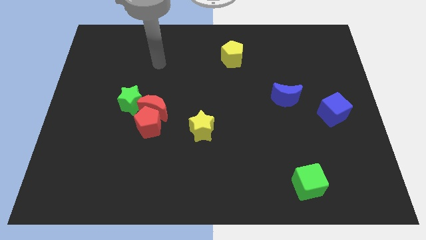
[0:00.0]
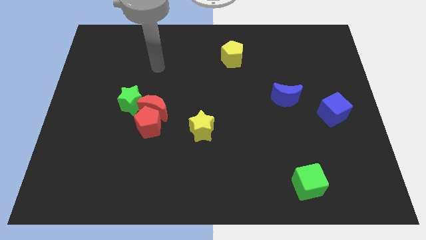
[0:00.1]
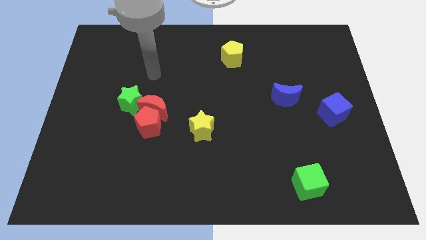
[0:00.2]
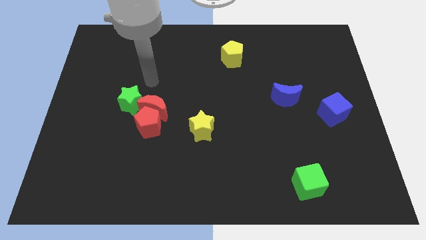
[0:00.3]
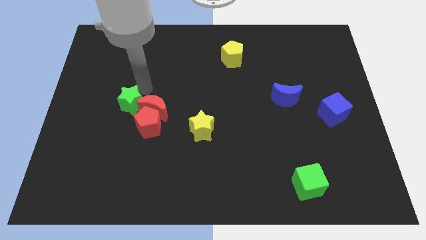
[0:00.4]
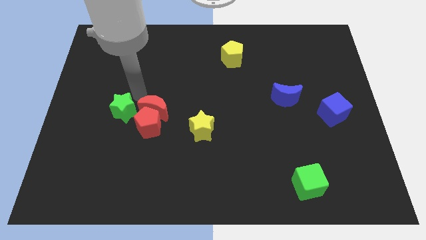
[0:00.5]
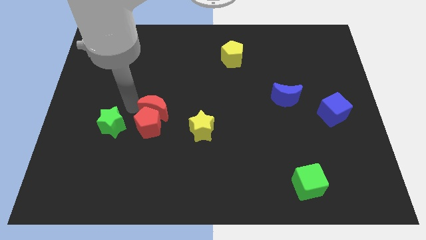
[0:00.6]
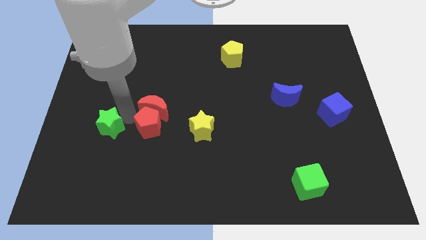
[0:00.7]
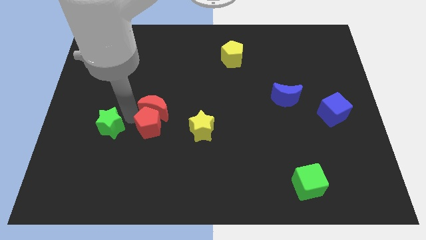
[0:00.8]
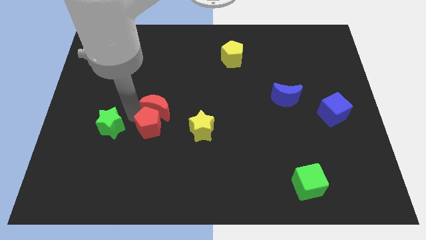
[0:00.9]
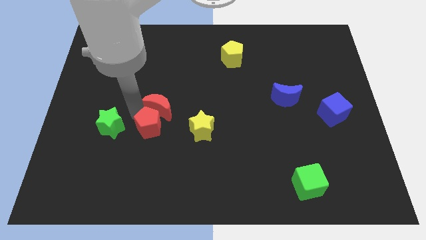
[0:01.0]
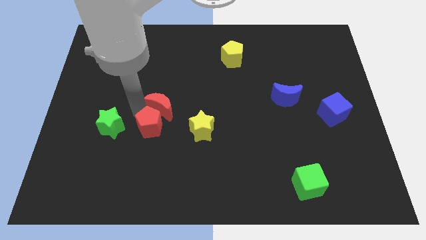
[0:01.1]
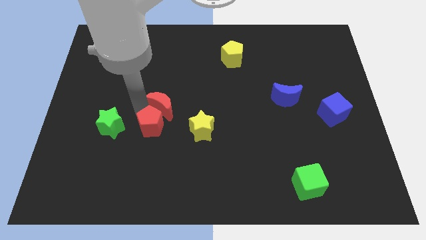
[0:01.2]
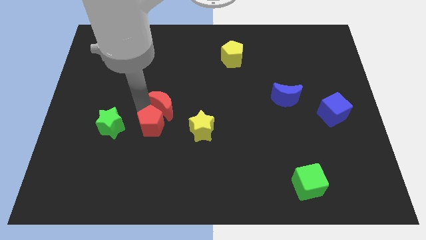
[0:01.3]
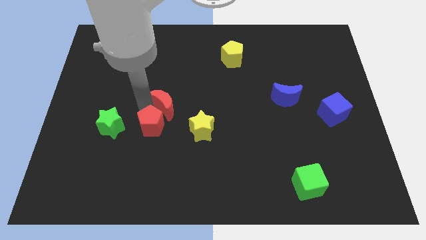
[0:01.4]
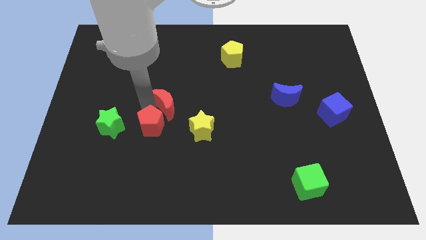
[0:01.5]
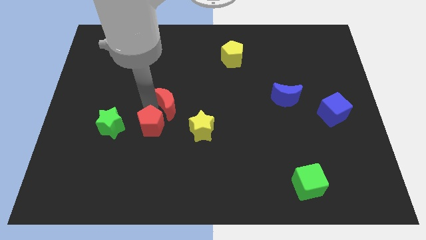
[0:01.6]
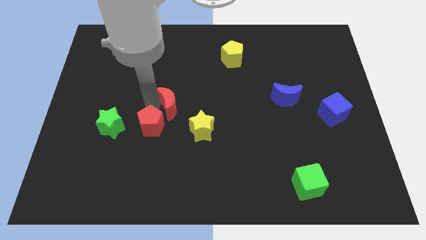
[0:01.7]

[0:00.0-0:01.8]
move the red moon away from the red pentagon and green star

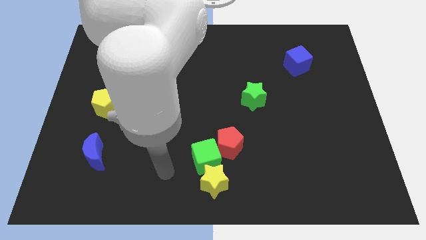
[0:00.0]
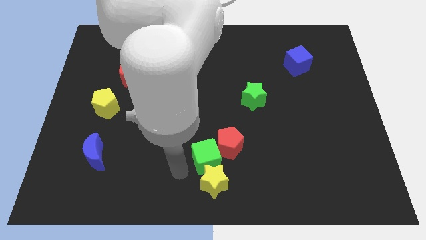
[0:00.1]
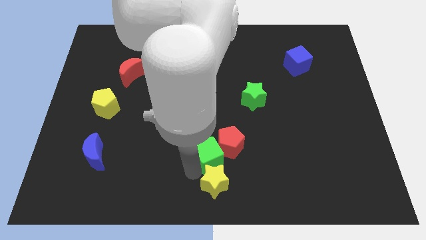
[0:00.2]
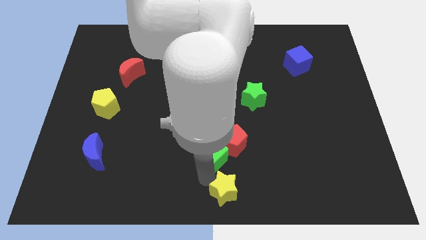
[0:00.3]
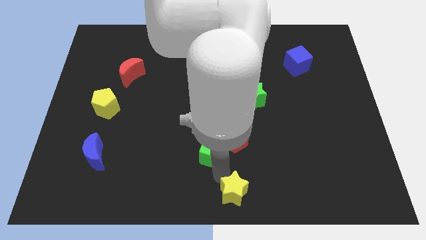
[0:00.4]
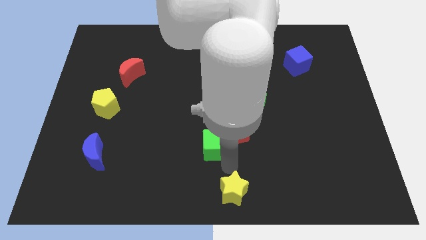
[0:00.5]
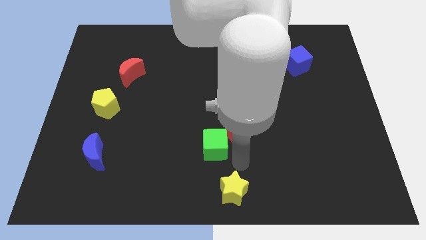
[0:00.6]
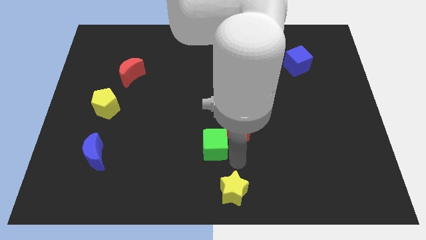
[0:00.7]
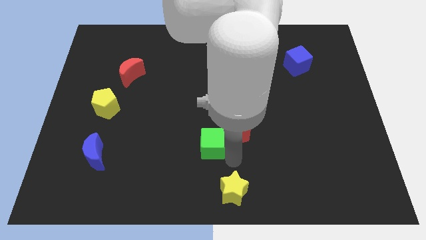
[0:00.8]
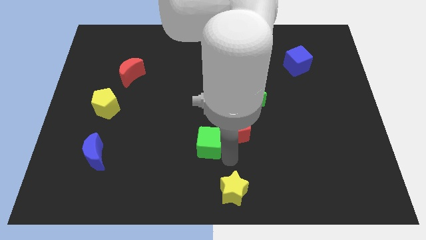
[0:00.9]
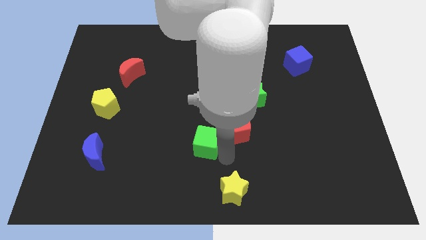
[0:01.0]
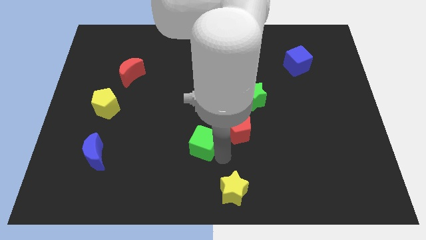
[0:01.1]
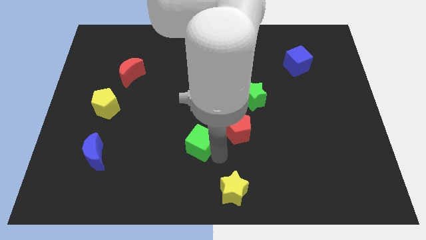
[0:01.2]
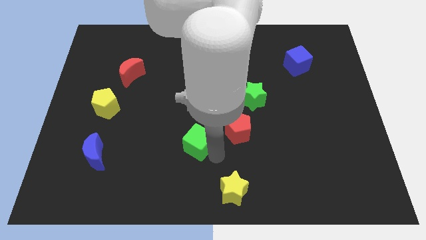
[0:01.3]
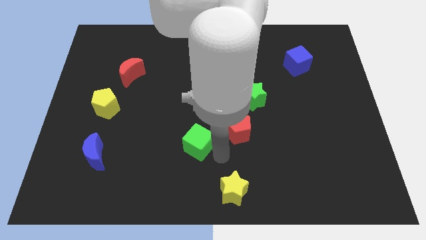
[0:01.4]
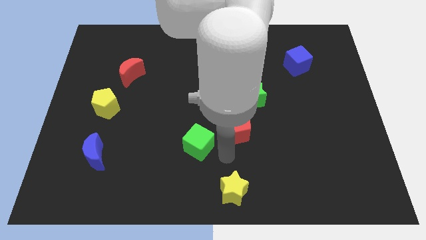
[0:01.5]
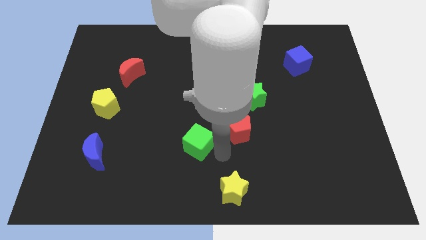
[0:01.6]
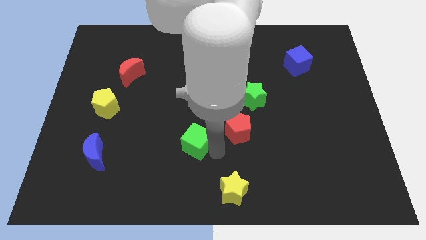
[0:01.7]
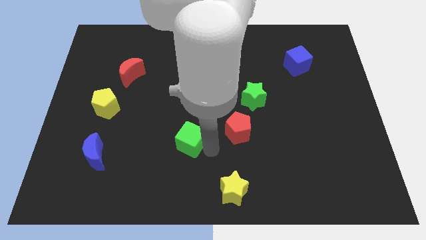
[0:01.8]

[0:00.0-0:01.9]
move the green cube away from the yellow star and red pentagon

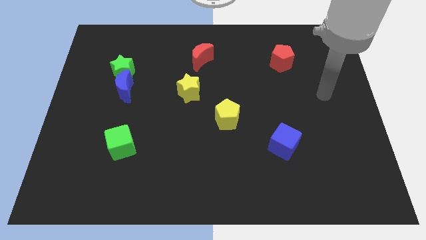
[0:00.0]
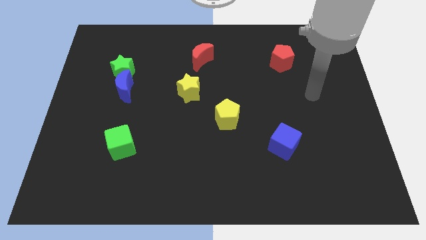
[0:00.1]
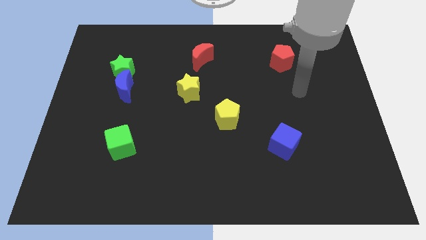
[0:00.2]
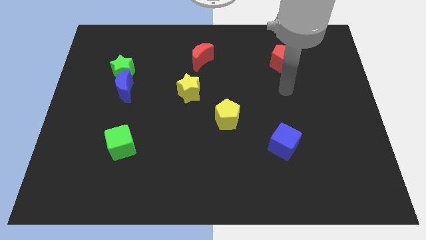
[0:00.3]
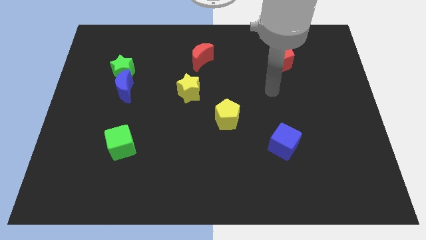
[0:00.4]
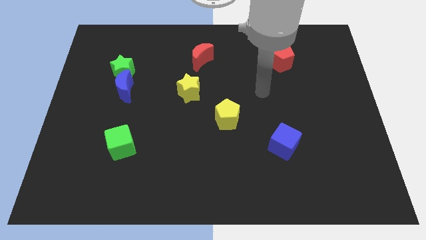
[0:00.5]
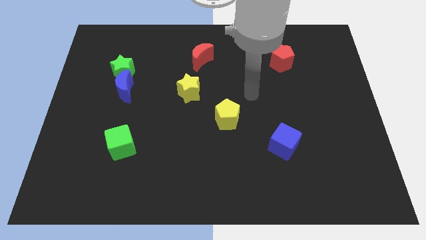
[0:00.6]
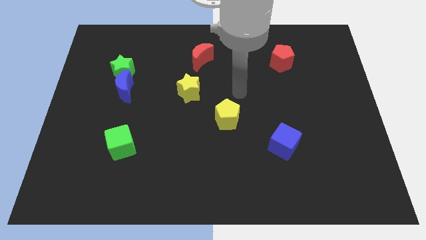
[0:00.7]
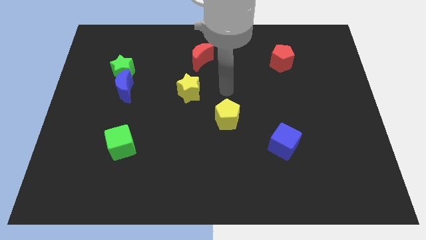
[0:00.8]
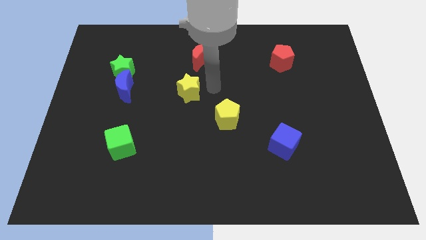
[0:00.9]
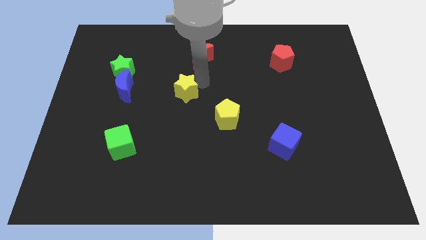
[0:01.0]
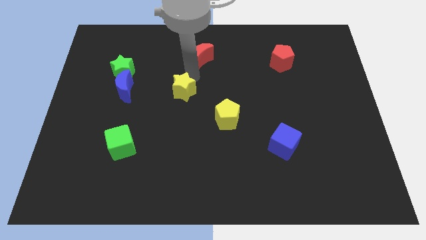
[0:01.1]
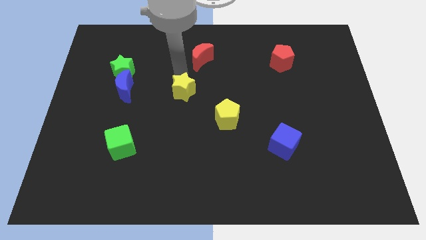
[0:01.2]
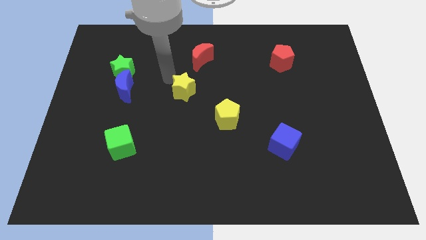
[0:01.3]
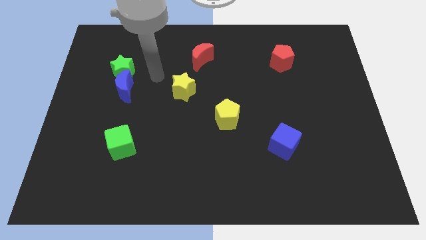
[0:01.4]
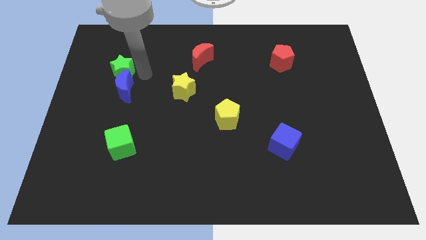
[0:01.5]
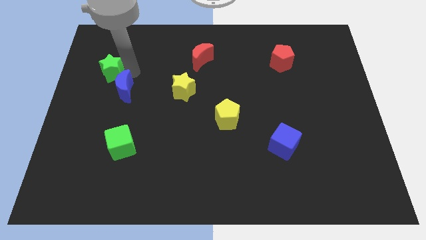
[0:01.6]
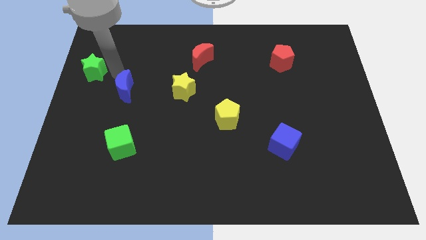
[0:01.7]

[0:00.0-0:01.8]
move the blue moon away from the green star

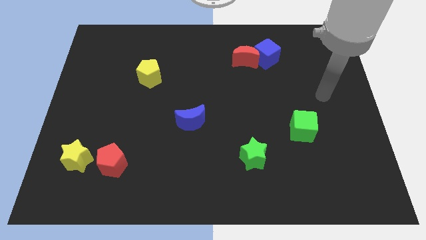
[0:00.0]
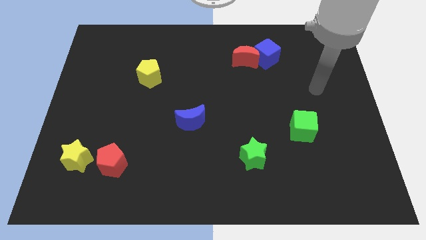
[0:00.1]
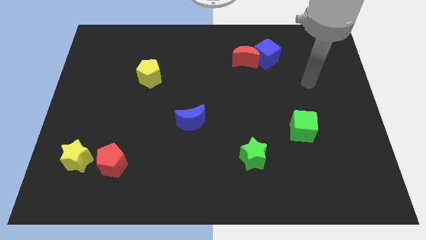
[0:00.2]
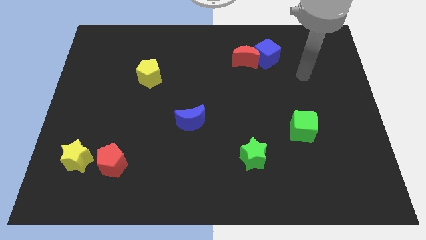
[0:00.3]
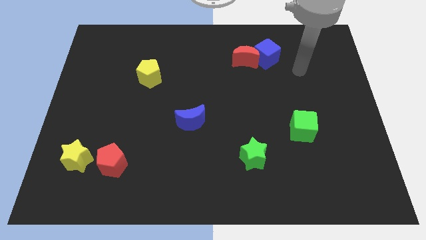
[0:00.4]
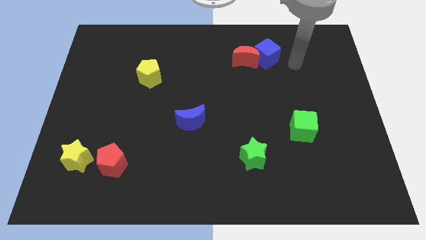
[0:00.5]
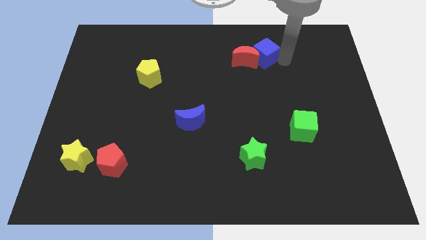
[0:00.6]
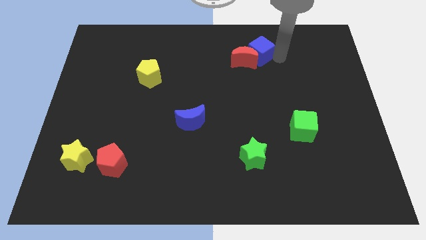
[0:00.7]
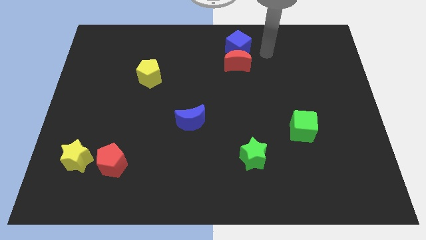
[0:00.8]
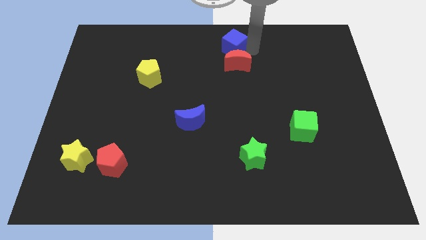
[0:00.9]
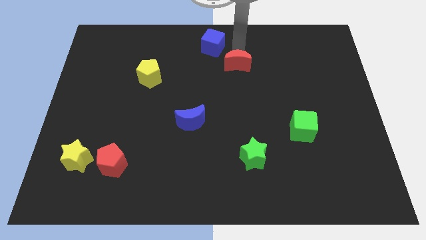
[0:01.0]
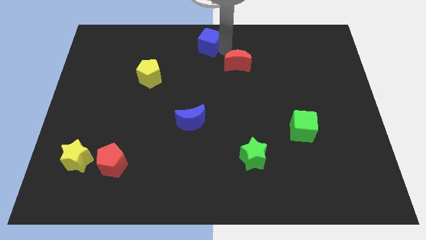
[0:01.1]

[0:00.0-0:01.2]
separate the red moon from the blue cube

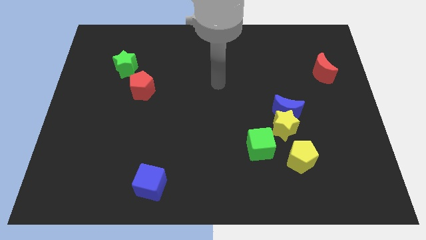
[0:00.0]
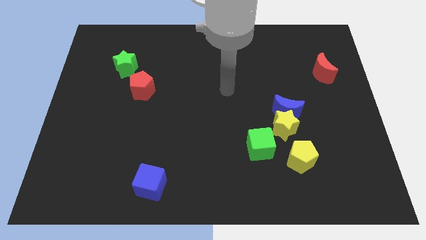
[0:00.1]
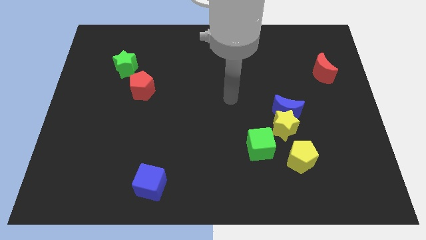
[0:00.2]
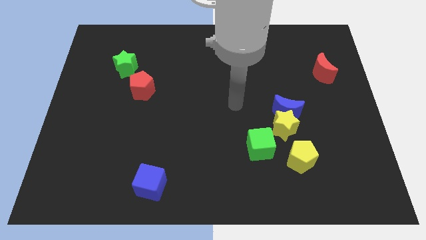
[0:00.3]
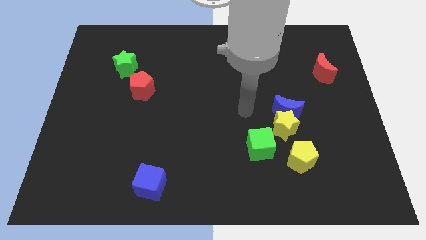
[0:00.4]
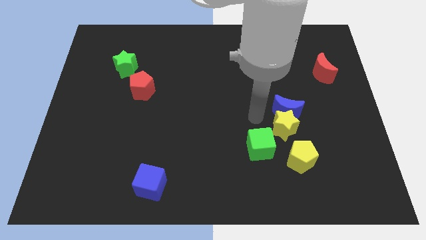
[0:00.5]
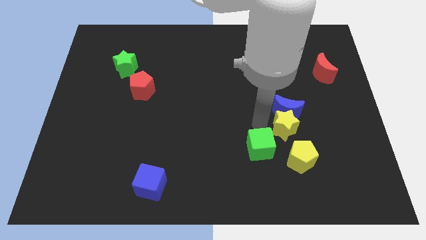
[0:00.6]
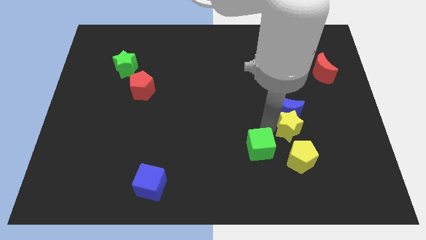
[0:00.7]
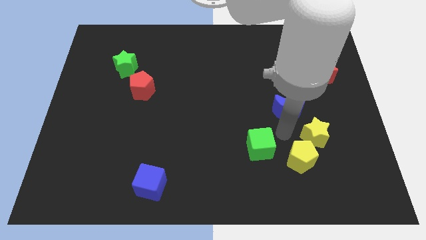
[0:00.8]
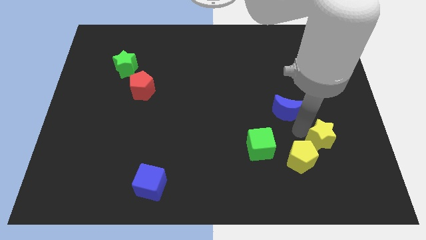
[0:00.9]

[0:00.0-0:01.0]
separate the blue moon from the yellow star

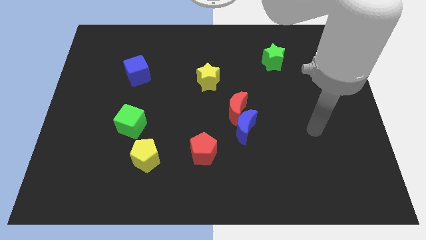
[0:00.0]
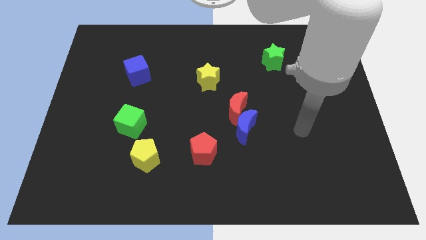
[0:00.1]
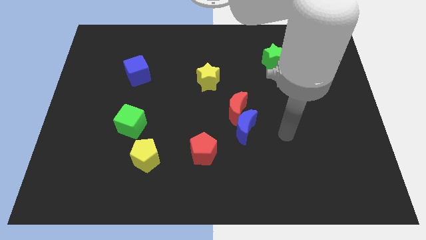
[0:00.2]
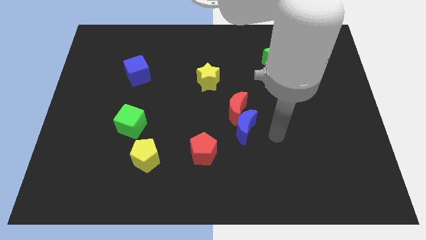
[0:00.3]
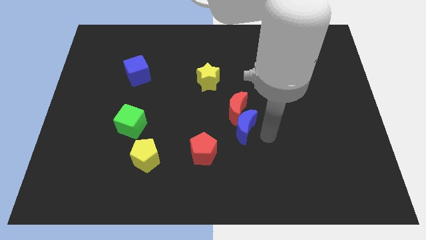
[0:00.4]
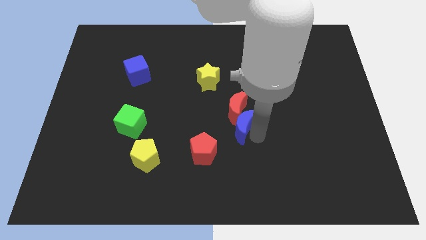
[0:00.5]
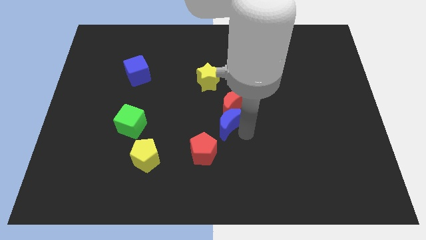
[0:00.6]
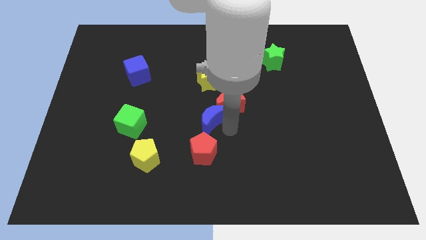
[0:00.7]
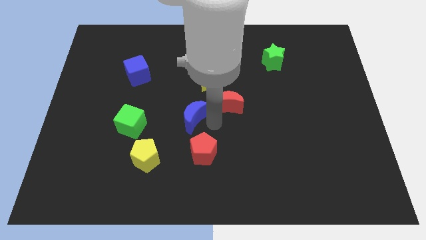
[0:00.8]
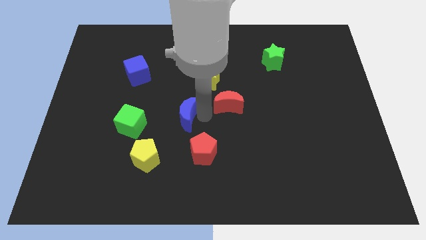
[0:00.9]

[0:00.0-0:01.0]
pull the red moon apart from the blue moon

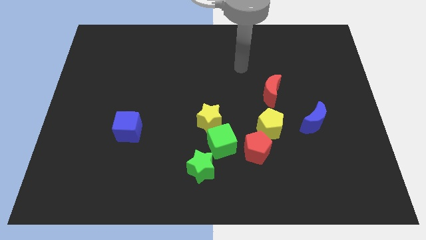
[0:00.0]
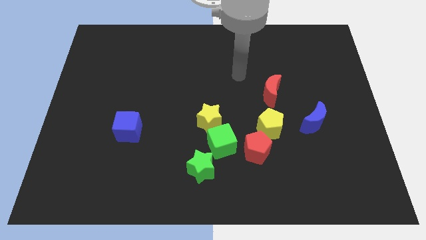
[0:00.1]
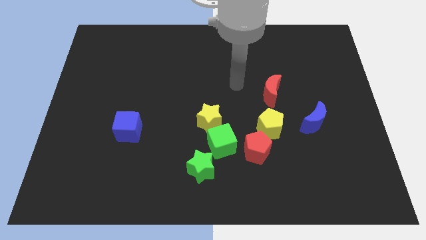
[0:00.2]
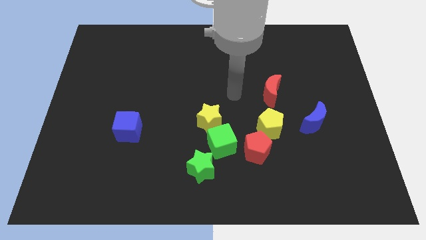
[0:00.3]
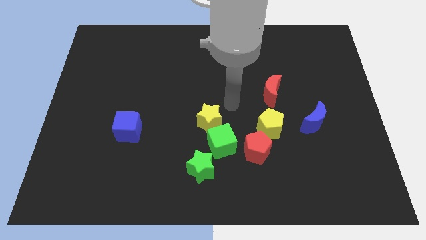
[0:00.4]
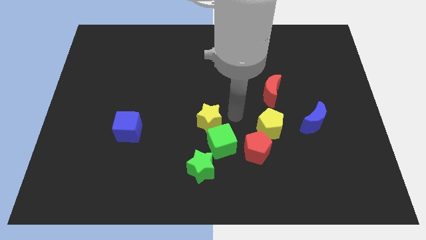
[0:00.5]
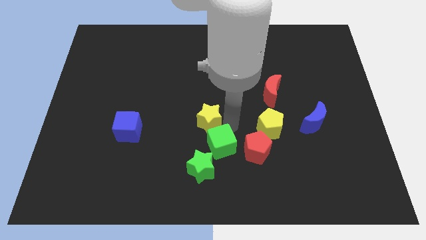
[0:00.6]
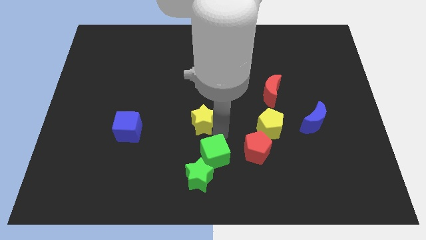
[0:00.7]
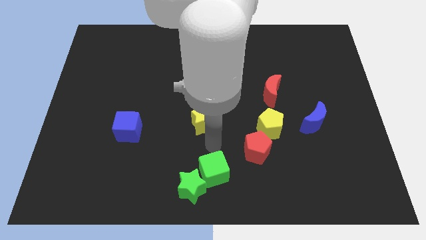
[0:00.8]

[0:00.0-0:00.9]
pull the yellow star apart from the green cube
